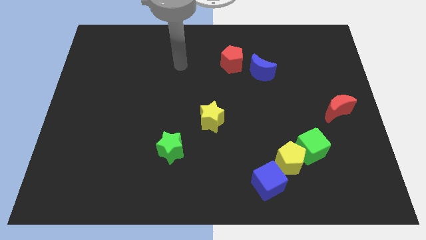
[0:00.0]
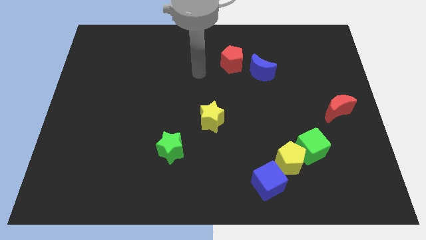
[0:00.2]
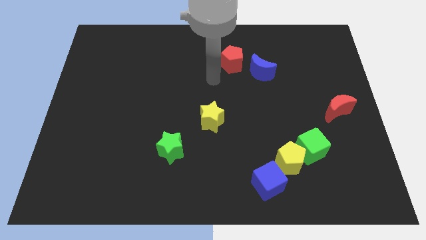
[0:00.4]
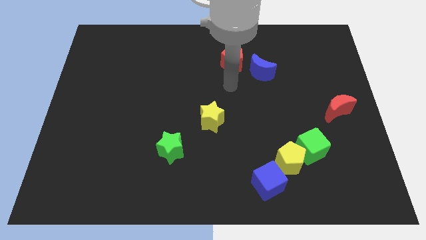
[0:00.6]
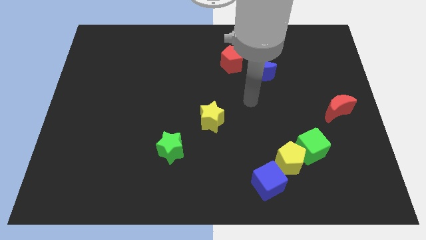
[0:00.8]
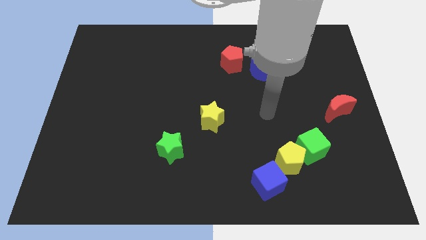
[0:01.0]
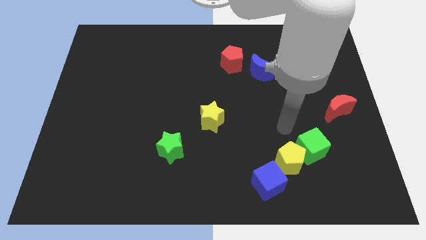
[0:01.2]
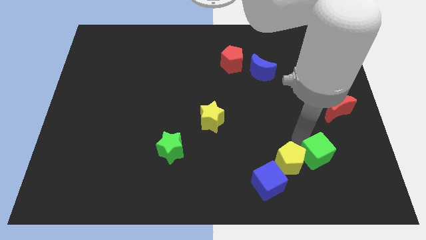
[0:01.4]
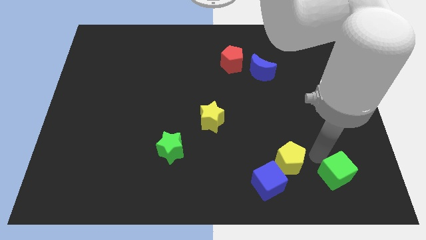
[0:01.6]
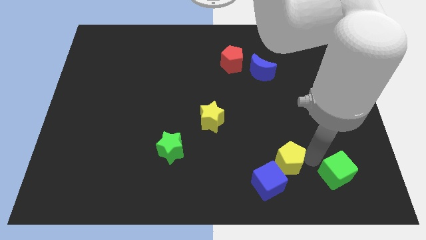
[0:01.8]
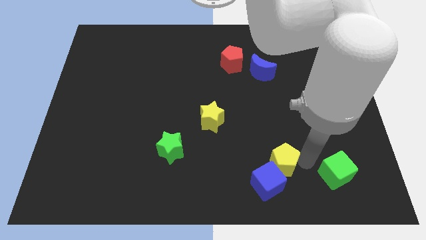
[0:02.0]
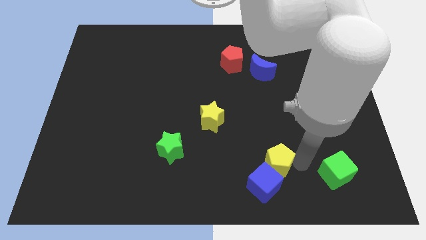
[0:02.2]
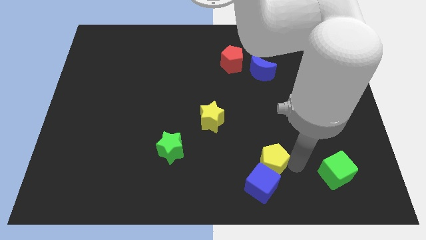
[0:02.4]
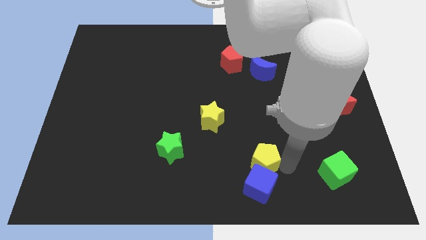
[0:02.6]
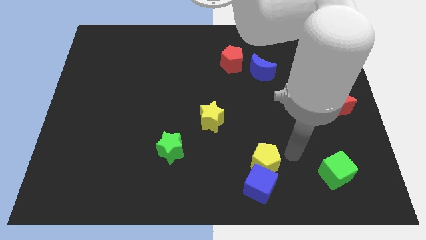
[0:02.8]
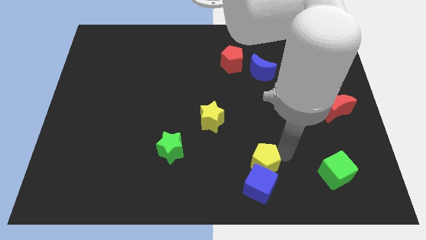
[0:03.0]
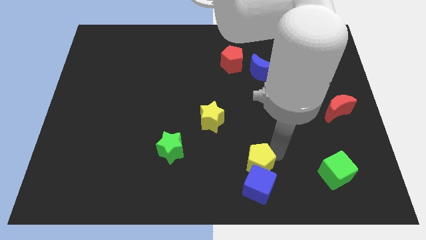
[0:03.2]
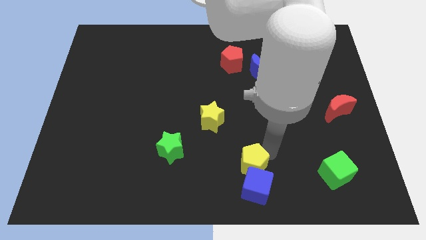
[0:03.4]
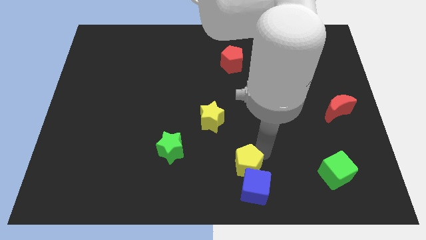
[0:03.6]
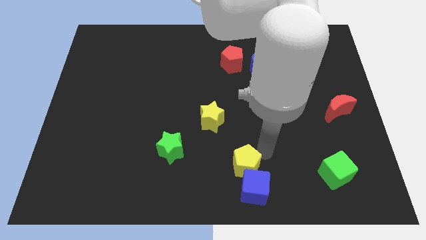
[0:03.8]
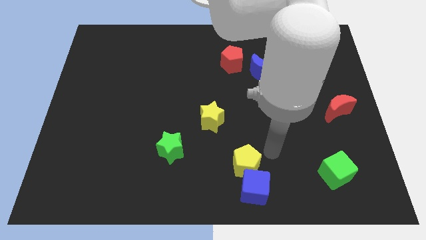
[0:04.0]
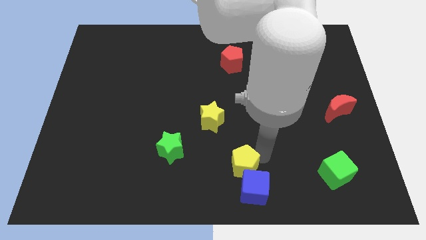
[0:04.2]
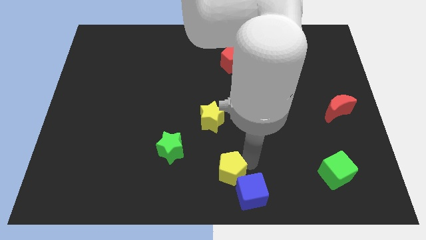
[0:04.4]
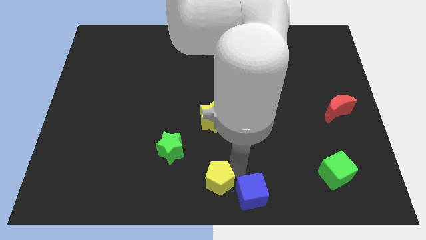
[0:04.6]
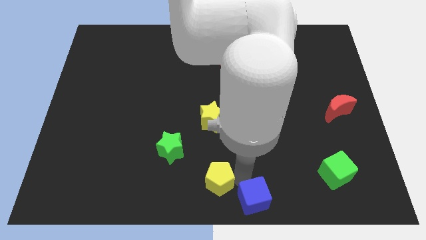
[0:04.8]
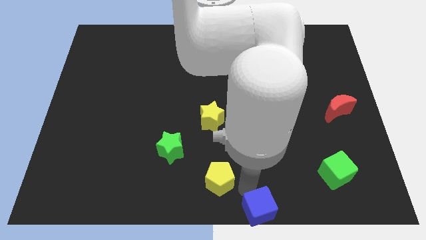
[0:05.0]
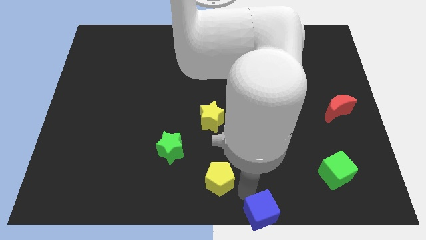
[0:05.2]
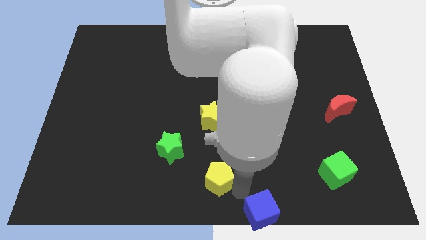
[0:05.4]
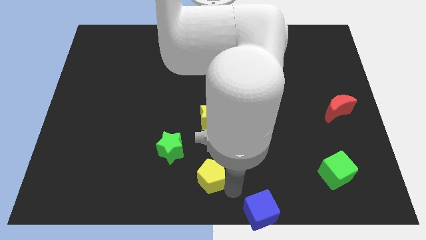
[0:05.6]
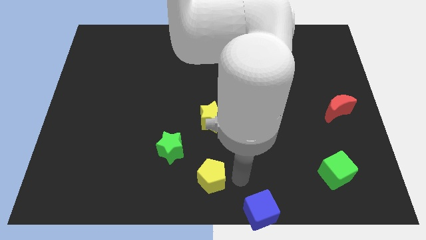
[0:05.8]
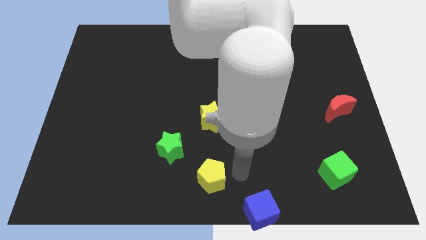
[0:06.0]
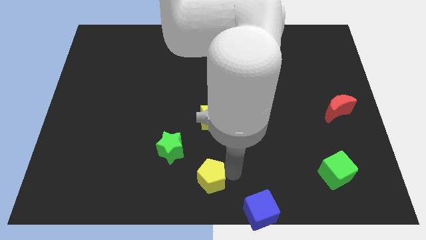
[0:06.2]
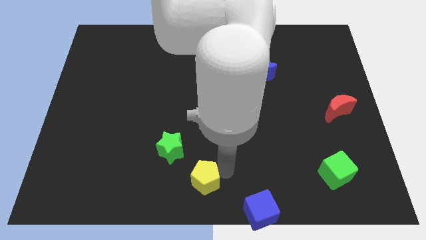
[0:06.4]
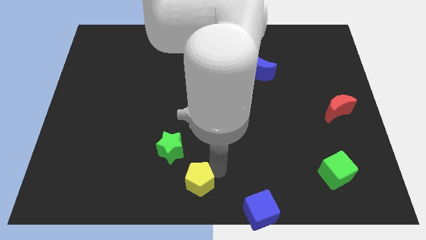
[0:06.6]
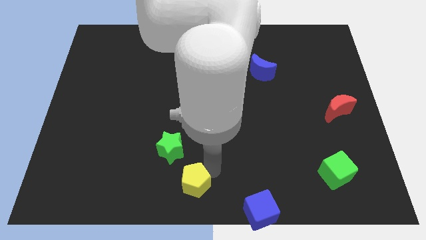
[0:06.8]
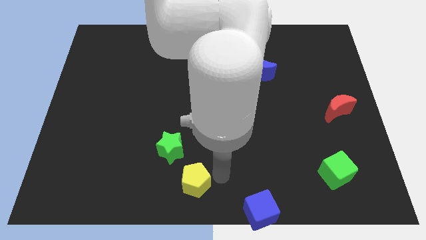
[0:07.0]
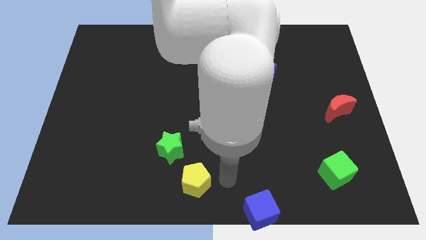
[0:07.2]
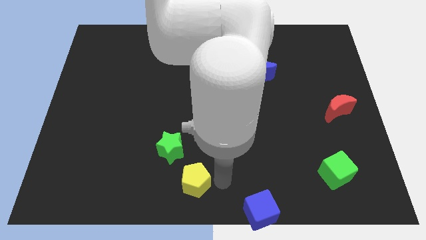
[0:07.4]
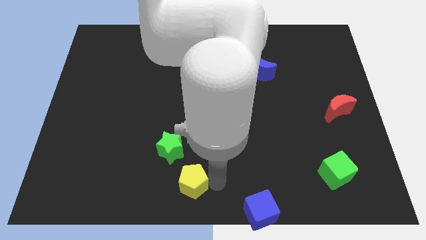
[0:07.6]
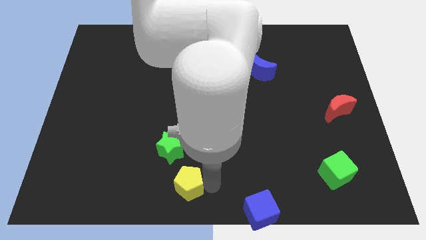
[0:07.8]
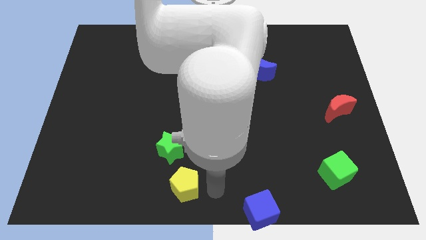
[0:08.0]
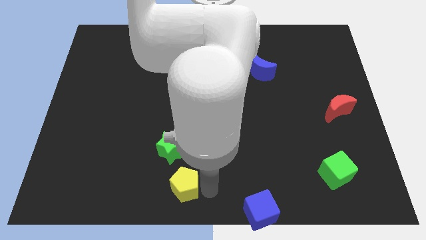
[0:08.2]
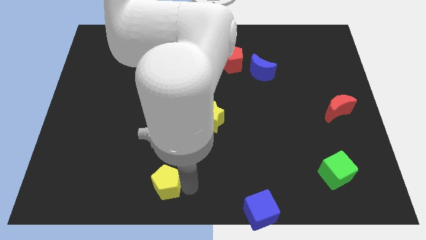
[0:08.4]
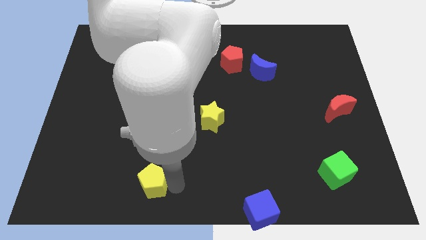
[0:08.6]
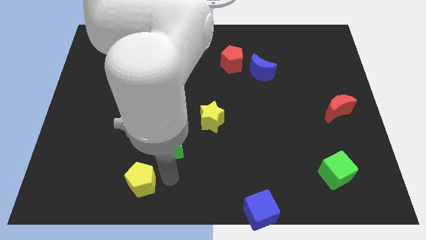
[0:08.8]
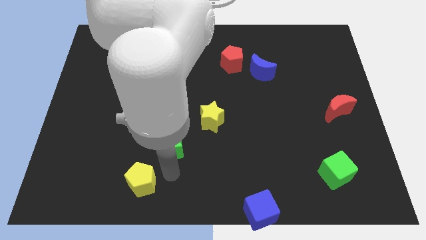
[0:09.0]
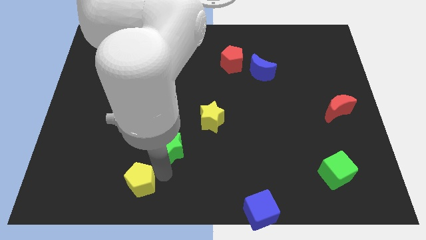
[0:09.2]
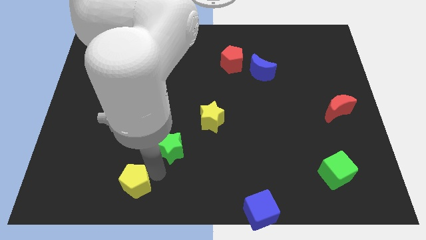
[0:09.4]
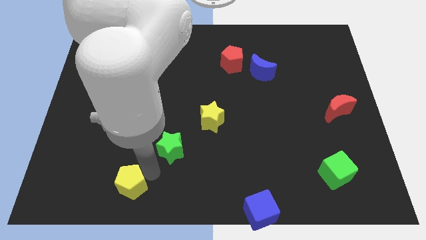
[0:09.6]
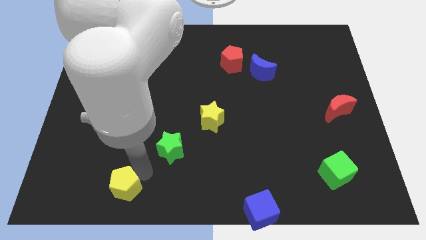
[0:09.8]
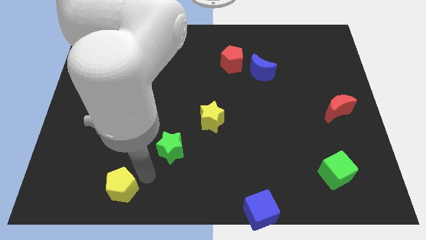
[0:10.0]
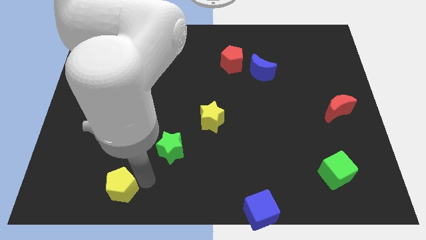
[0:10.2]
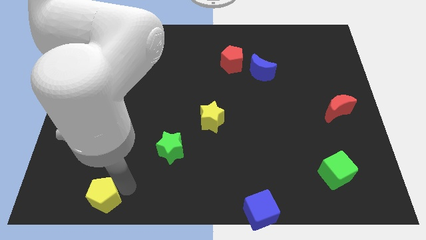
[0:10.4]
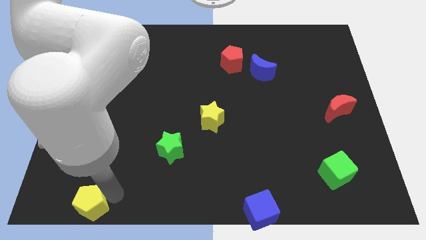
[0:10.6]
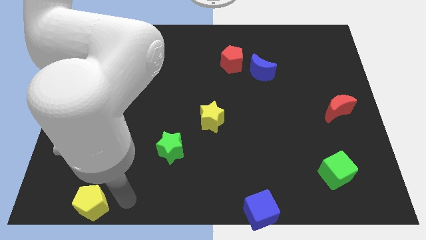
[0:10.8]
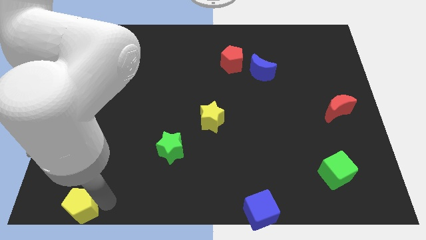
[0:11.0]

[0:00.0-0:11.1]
slide the yellow pentagon to the bottom left of the board
